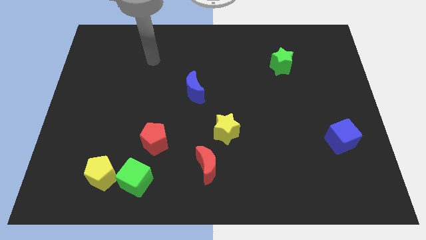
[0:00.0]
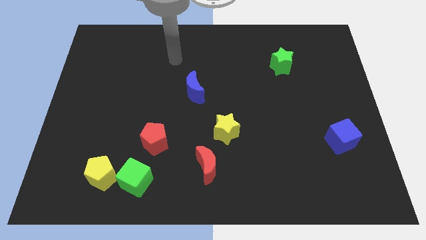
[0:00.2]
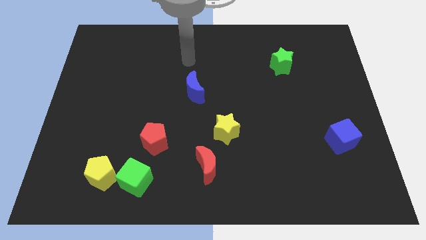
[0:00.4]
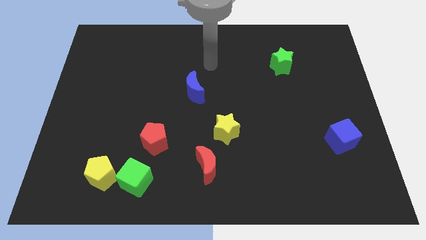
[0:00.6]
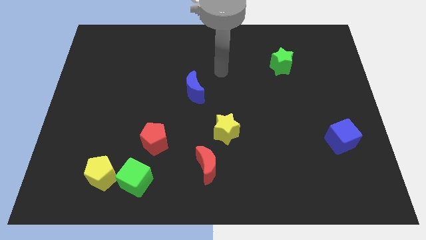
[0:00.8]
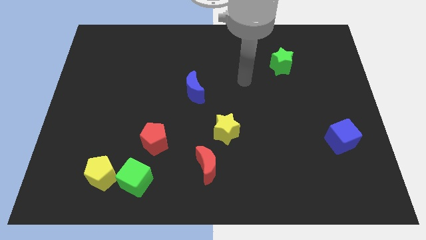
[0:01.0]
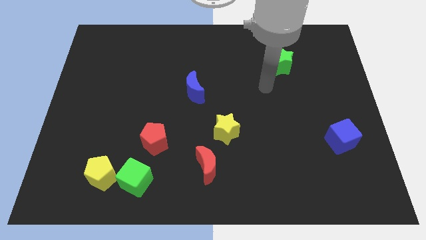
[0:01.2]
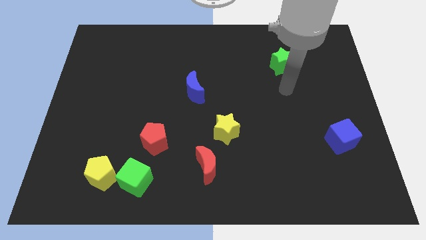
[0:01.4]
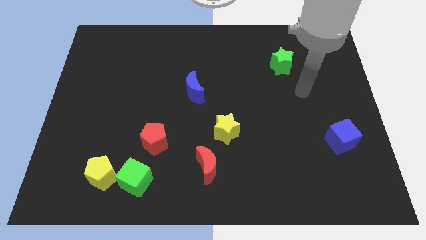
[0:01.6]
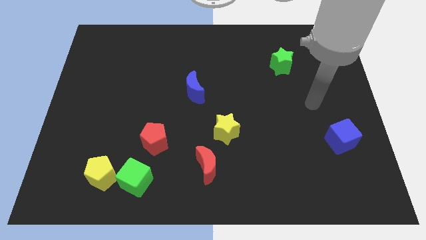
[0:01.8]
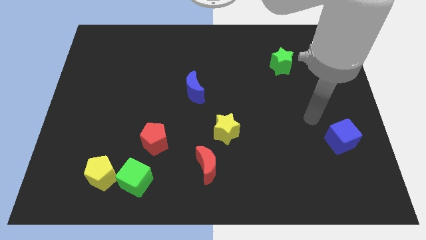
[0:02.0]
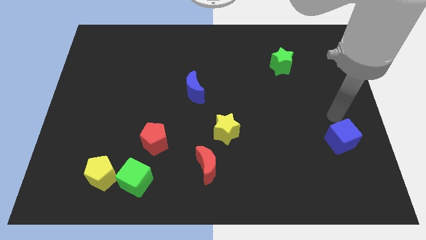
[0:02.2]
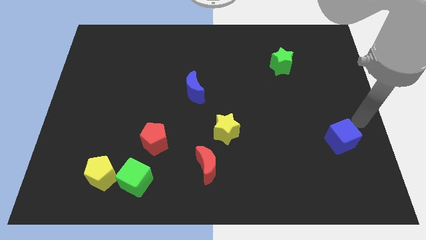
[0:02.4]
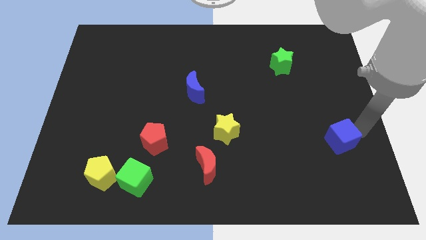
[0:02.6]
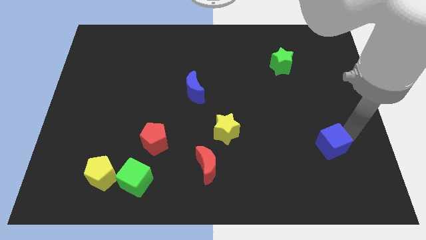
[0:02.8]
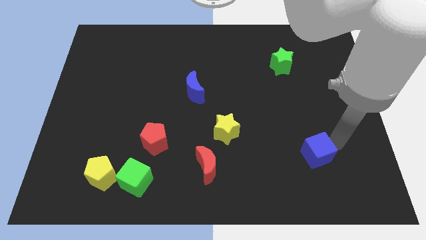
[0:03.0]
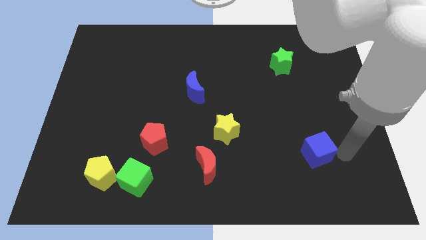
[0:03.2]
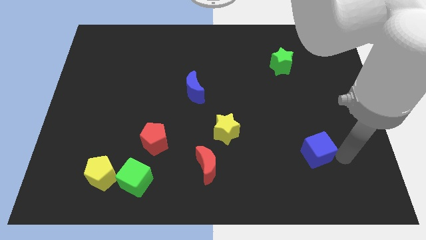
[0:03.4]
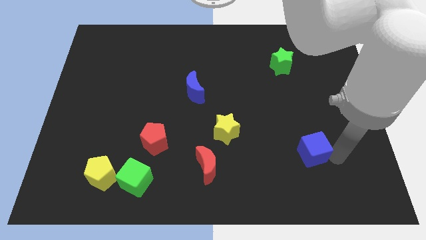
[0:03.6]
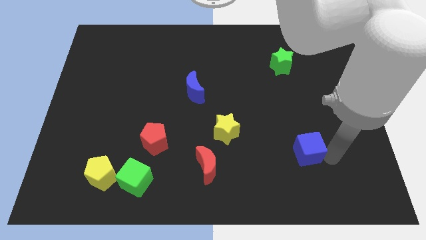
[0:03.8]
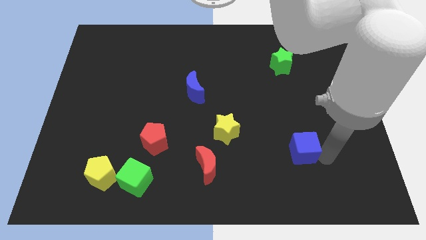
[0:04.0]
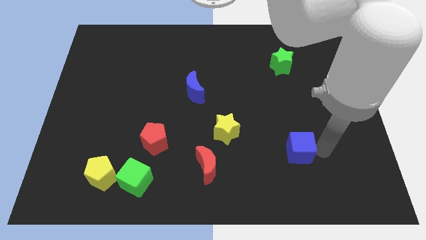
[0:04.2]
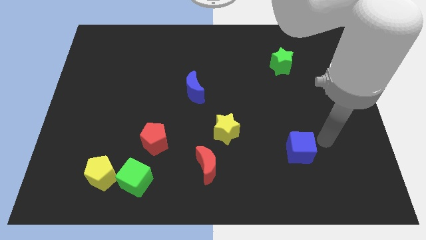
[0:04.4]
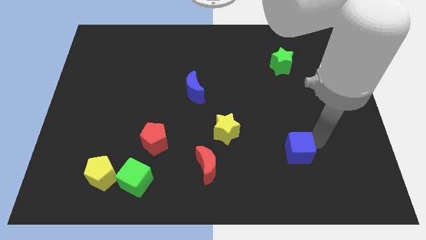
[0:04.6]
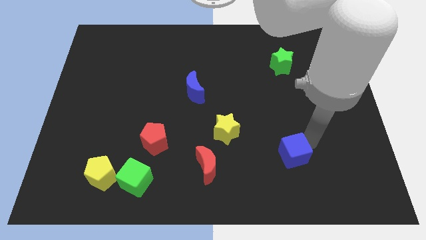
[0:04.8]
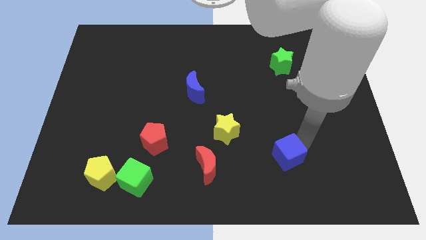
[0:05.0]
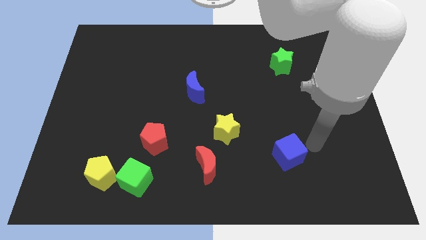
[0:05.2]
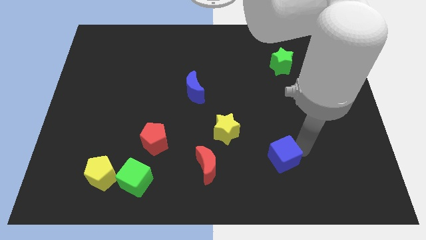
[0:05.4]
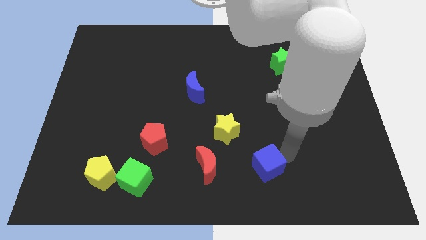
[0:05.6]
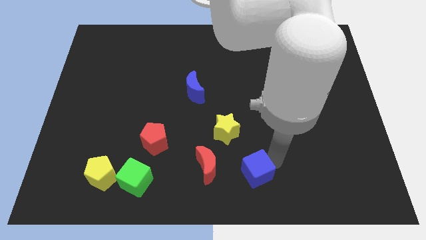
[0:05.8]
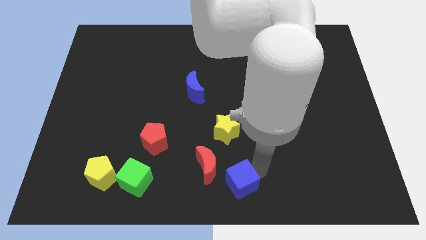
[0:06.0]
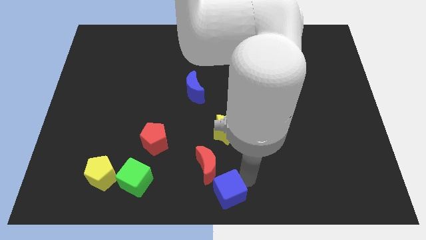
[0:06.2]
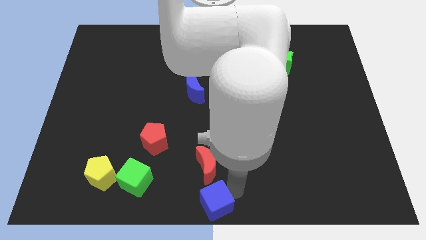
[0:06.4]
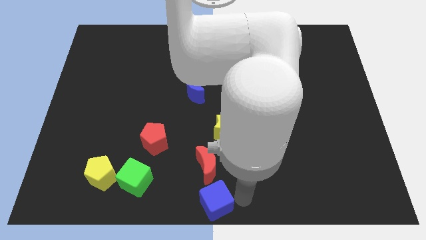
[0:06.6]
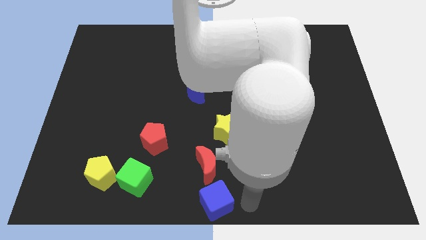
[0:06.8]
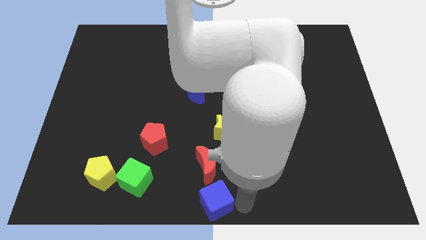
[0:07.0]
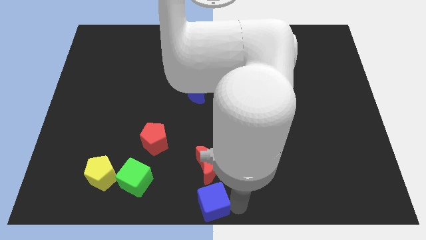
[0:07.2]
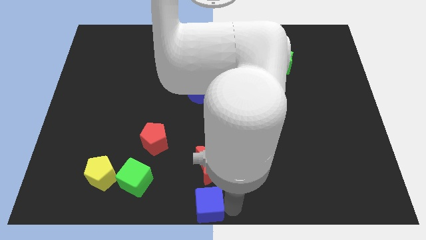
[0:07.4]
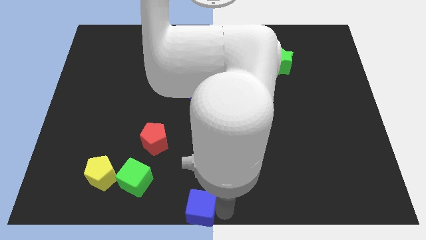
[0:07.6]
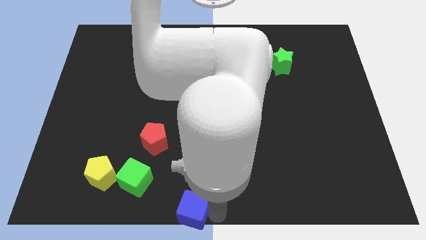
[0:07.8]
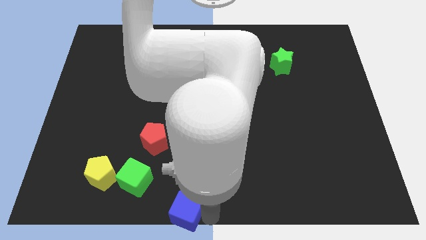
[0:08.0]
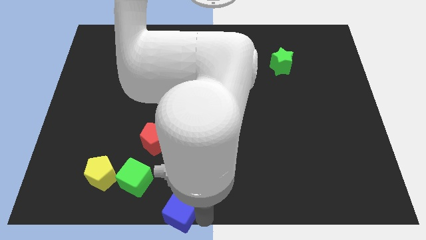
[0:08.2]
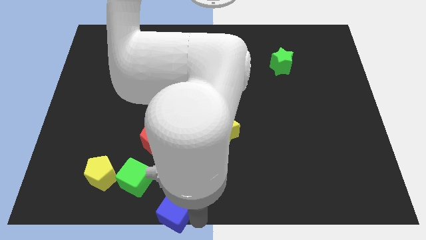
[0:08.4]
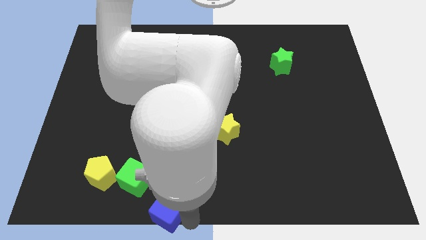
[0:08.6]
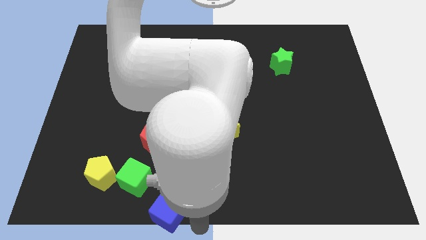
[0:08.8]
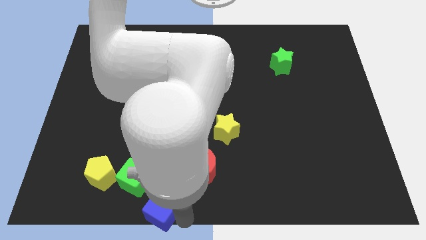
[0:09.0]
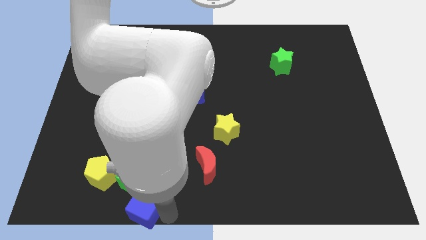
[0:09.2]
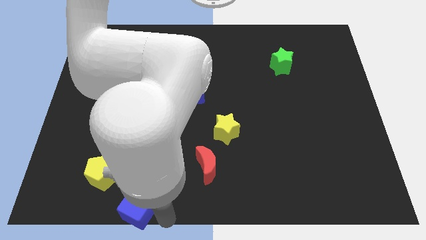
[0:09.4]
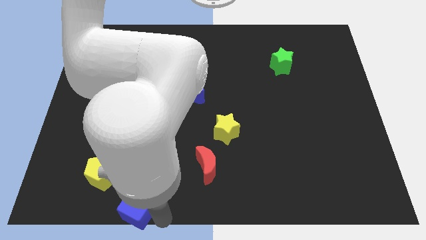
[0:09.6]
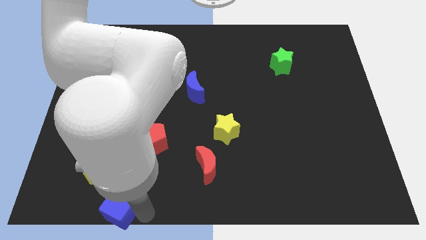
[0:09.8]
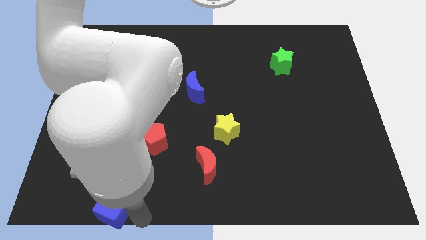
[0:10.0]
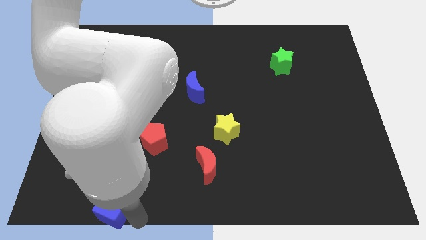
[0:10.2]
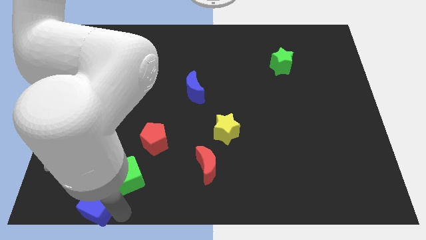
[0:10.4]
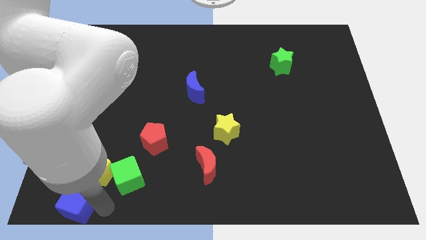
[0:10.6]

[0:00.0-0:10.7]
push the blue cube to the bottom left
